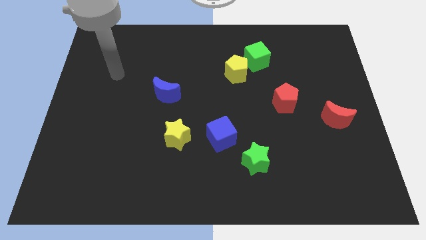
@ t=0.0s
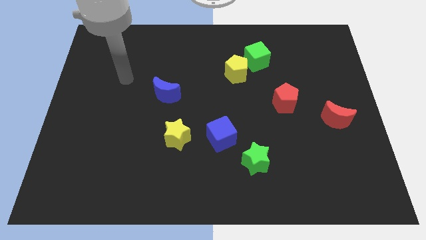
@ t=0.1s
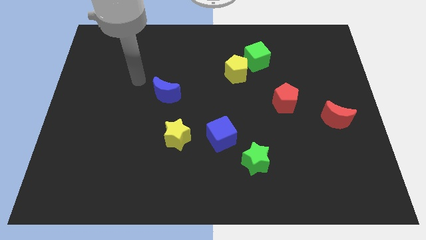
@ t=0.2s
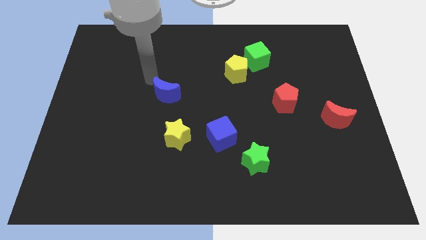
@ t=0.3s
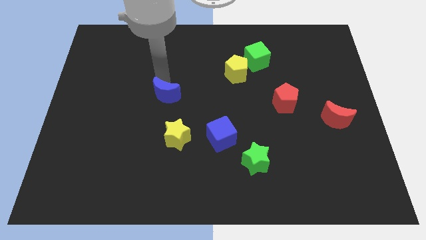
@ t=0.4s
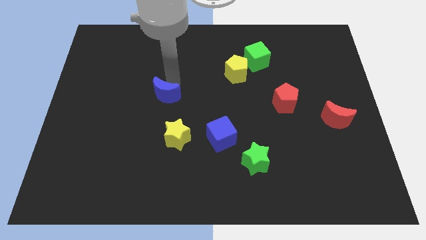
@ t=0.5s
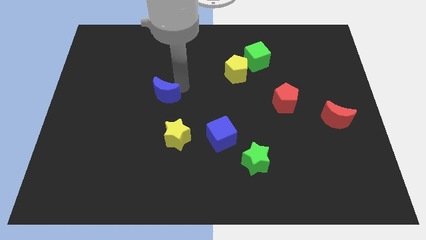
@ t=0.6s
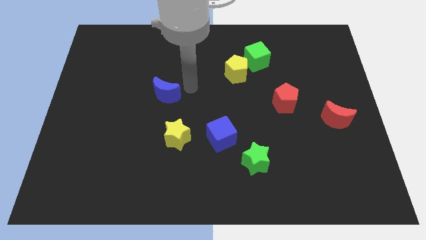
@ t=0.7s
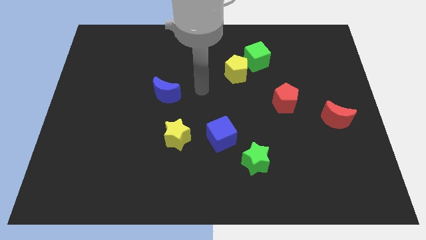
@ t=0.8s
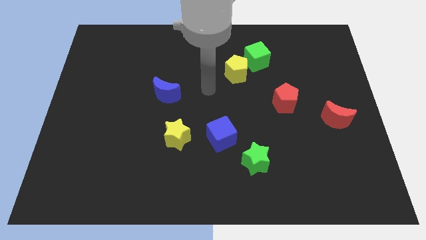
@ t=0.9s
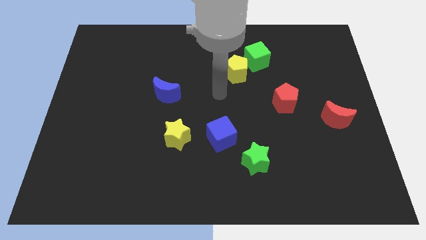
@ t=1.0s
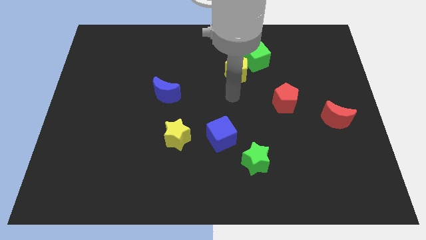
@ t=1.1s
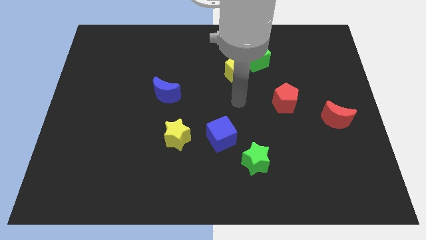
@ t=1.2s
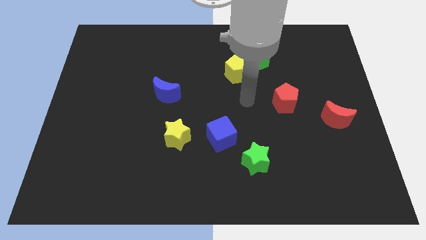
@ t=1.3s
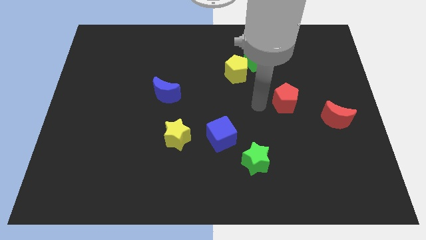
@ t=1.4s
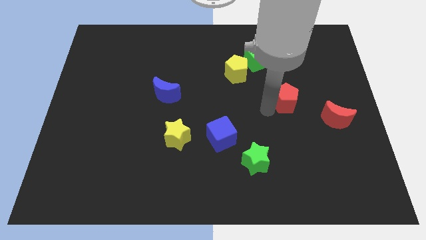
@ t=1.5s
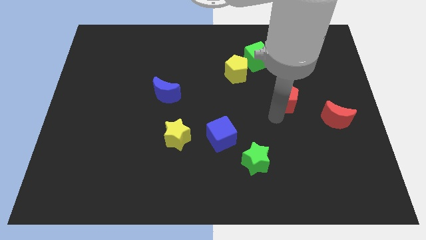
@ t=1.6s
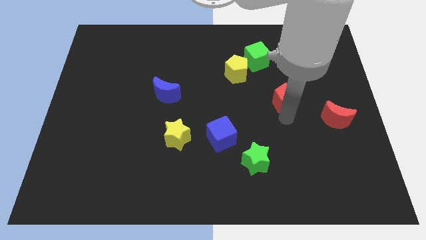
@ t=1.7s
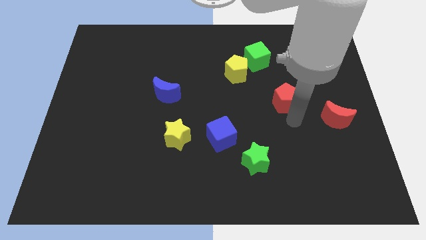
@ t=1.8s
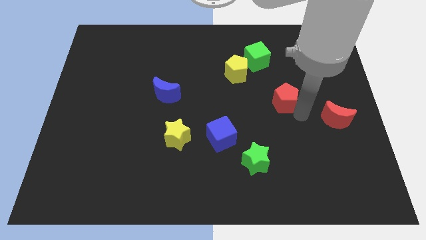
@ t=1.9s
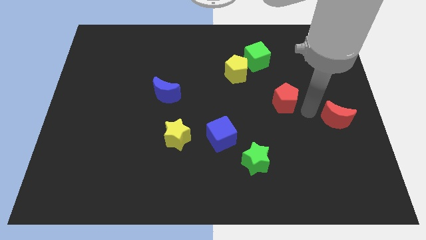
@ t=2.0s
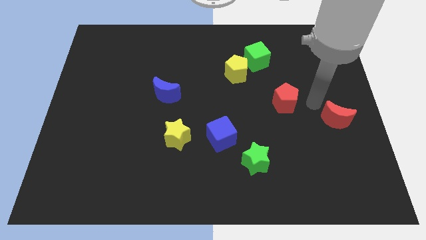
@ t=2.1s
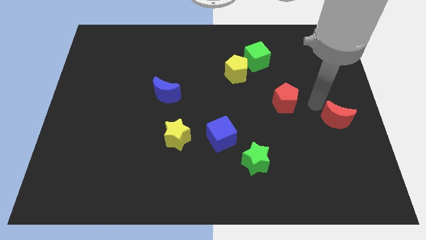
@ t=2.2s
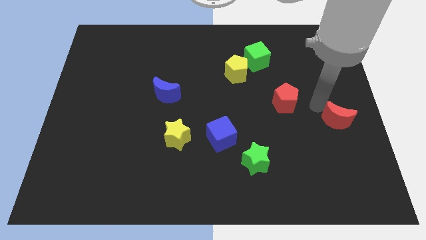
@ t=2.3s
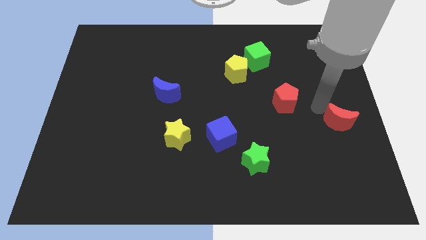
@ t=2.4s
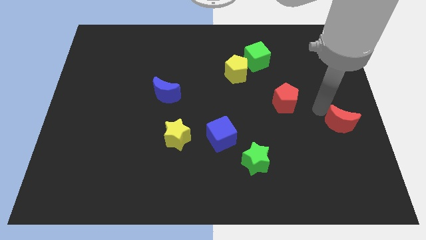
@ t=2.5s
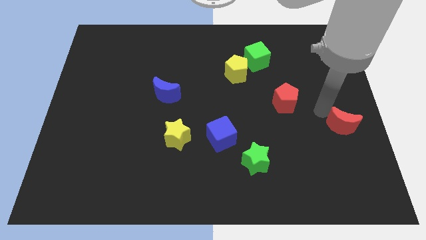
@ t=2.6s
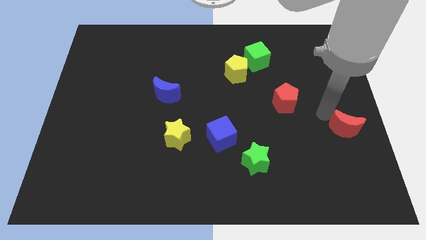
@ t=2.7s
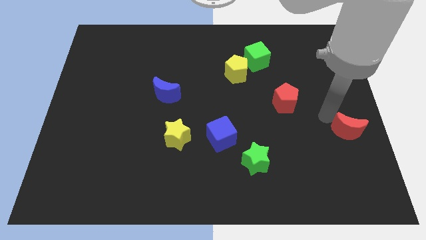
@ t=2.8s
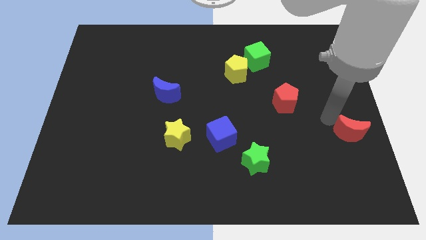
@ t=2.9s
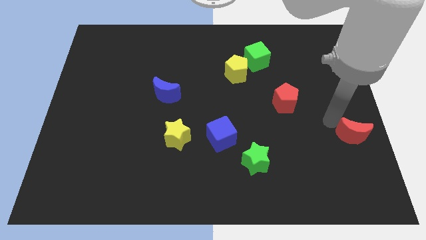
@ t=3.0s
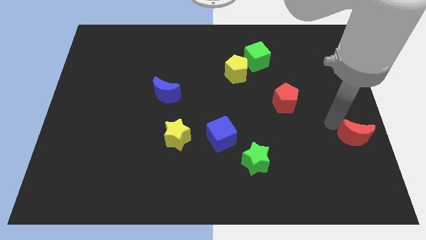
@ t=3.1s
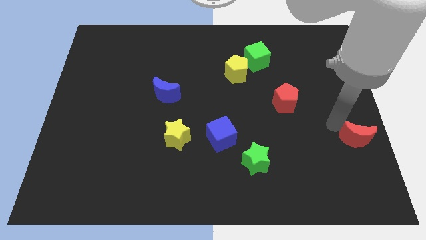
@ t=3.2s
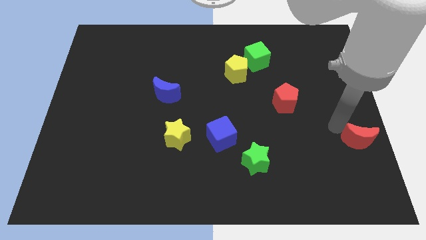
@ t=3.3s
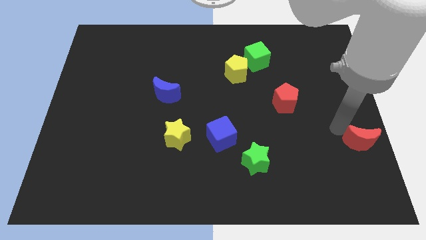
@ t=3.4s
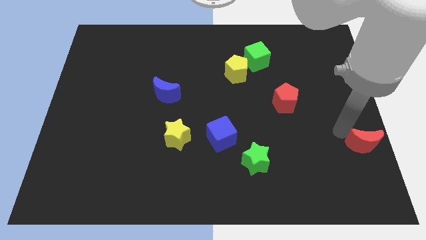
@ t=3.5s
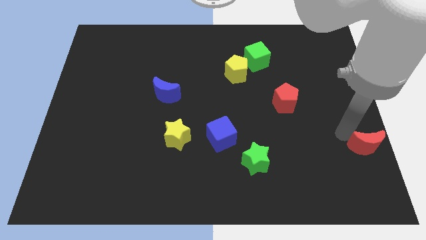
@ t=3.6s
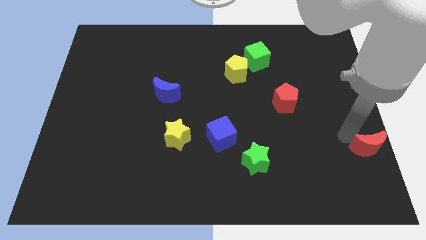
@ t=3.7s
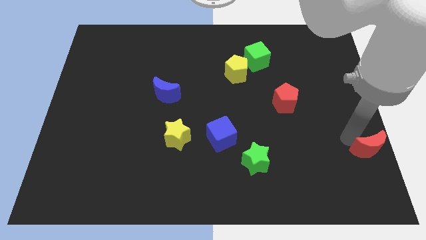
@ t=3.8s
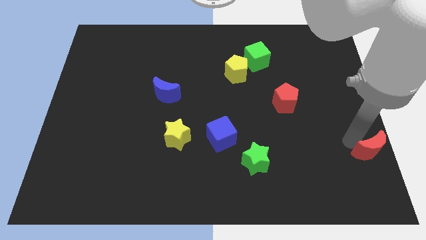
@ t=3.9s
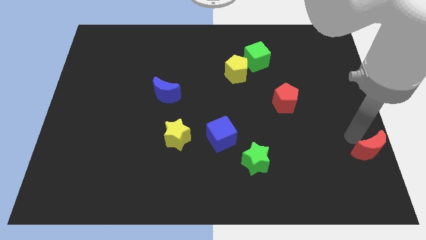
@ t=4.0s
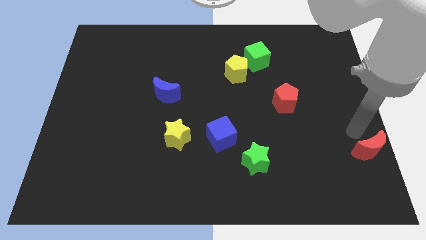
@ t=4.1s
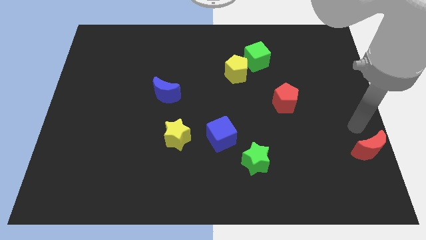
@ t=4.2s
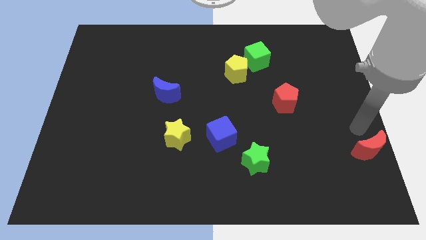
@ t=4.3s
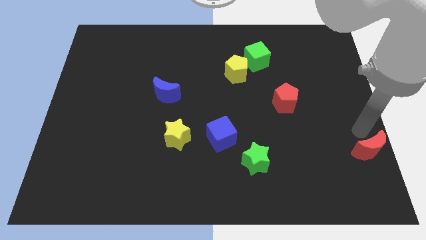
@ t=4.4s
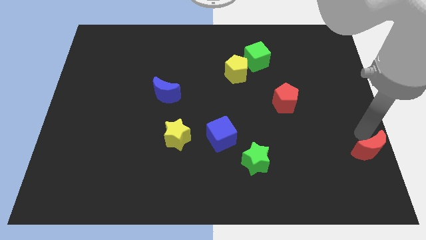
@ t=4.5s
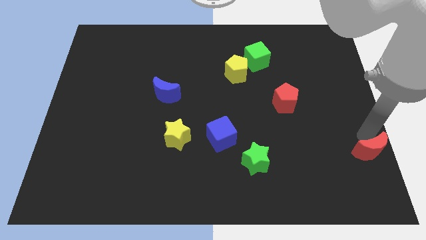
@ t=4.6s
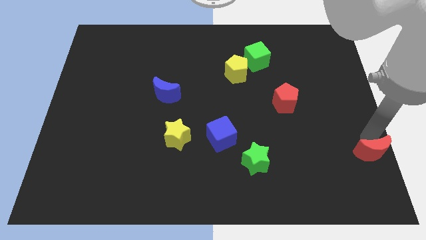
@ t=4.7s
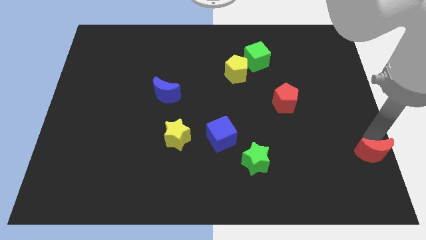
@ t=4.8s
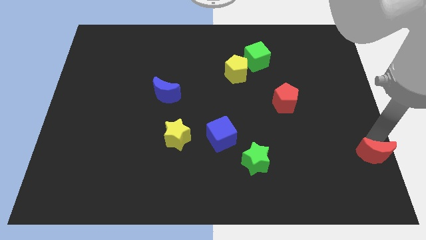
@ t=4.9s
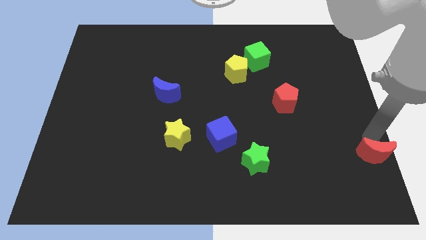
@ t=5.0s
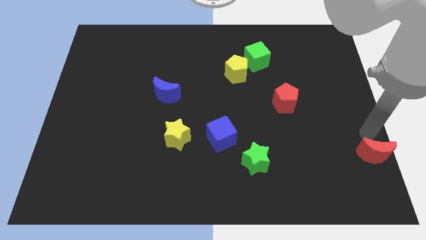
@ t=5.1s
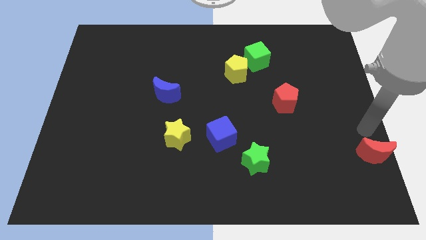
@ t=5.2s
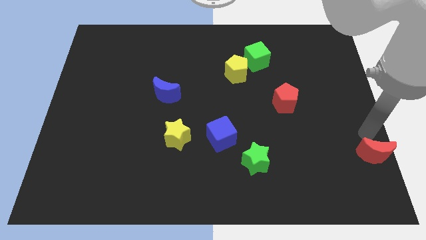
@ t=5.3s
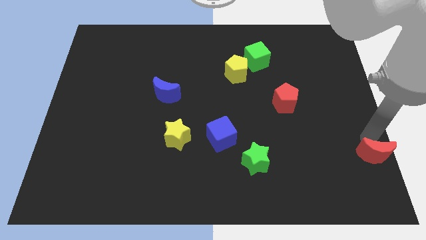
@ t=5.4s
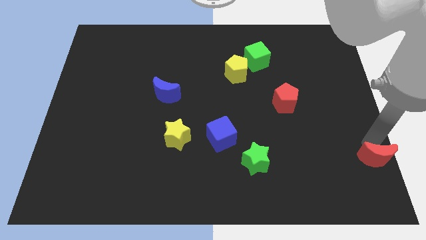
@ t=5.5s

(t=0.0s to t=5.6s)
slide the red moon to the lower right corner
